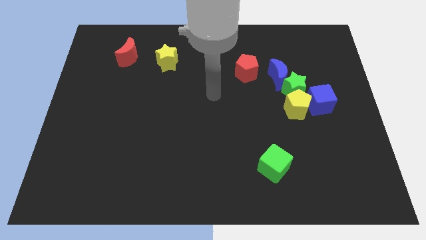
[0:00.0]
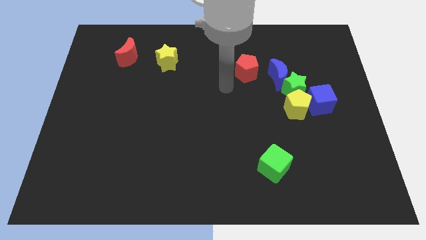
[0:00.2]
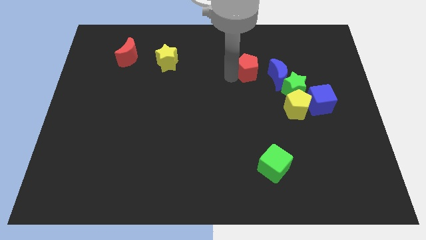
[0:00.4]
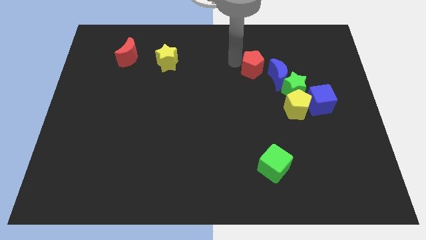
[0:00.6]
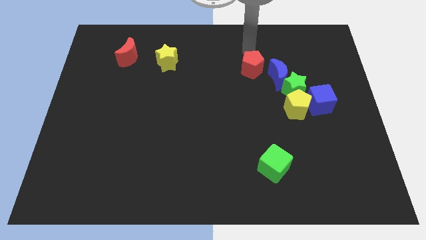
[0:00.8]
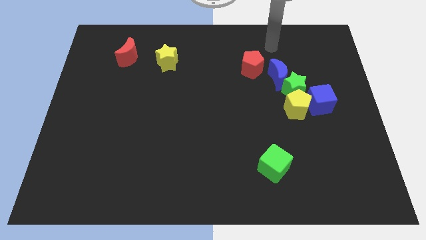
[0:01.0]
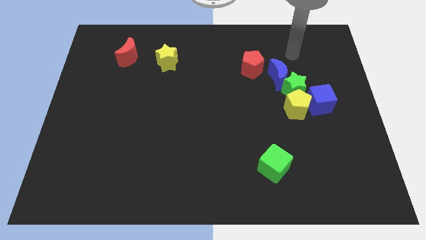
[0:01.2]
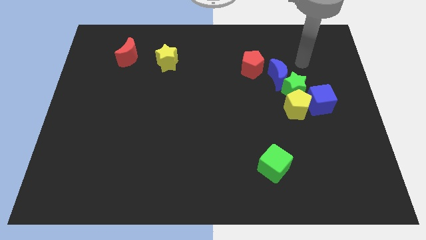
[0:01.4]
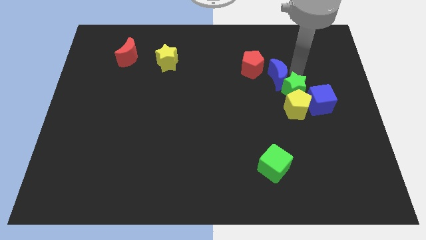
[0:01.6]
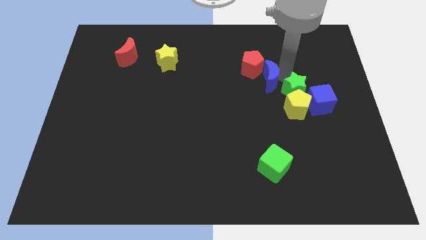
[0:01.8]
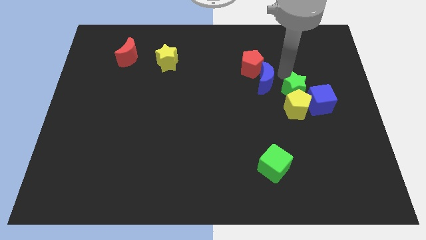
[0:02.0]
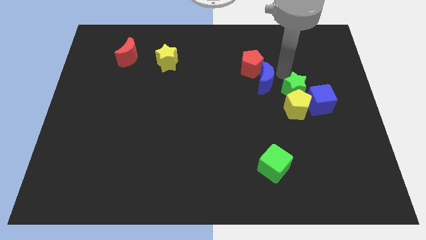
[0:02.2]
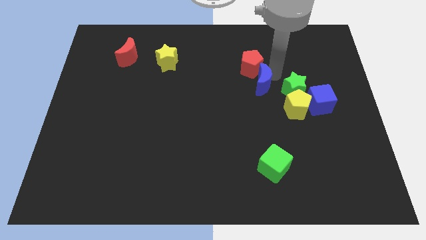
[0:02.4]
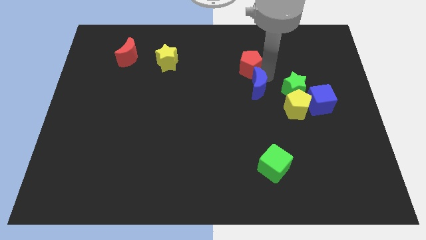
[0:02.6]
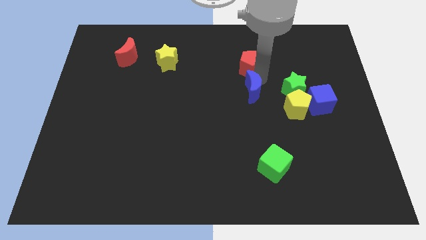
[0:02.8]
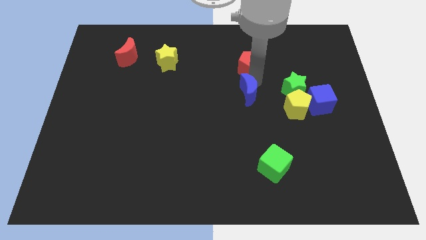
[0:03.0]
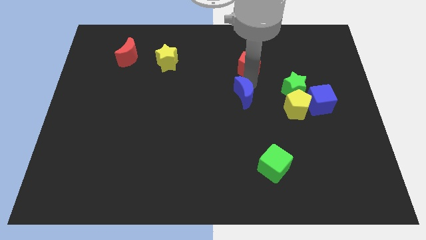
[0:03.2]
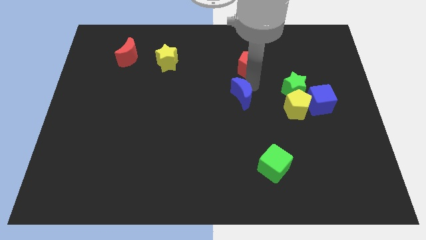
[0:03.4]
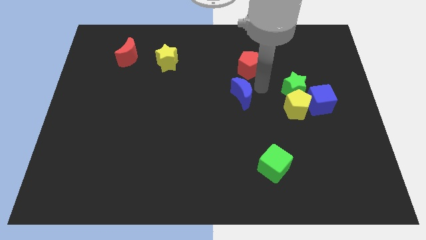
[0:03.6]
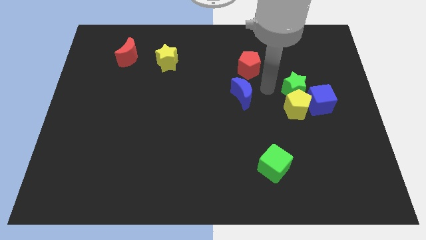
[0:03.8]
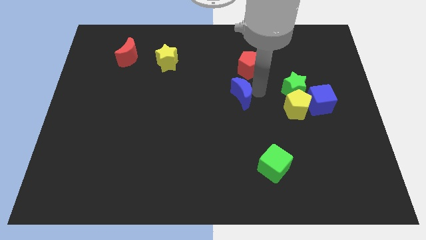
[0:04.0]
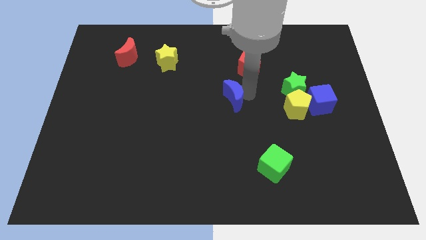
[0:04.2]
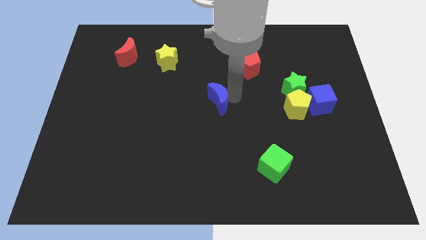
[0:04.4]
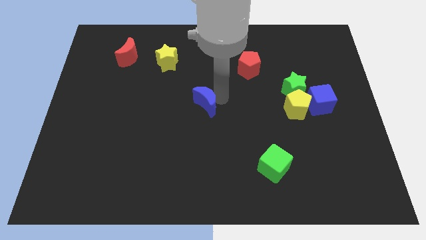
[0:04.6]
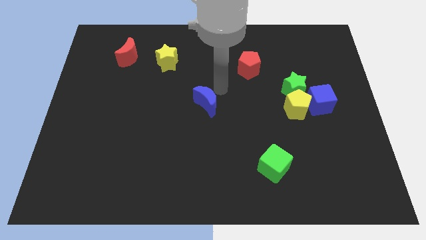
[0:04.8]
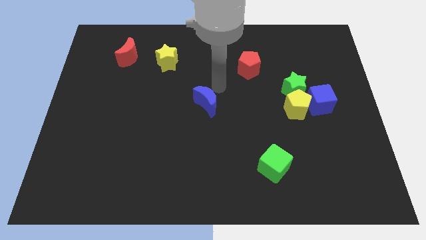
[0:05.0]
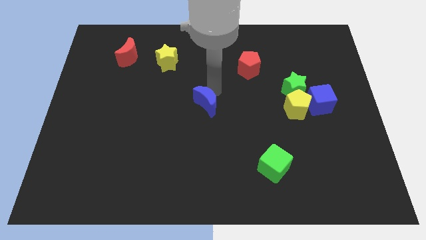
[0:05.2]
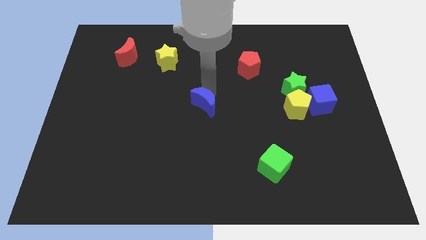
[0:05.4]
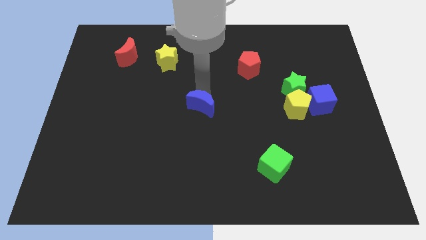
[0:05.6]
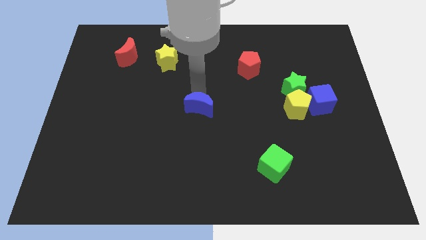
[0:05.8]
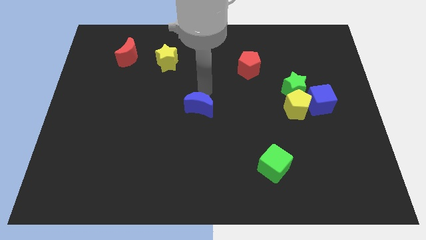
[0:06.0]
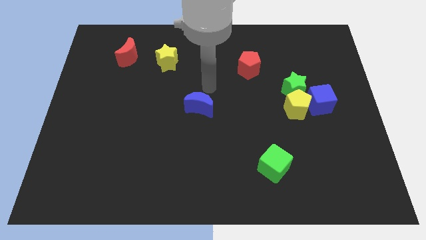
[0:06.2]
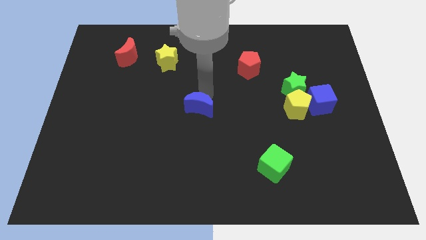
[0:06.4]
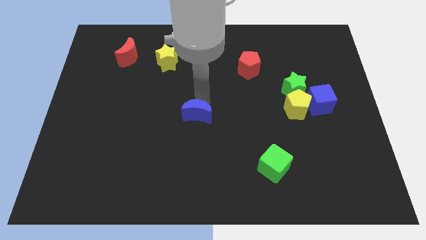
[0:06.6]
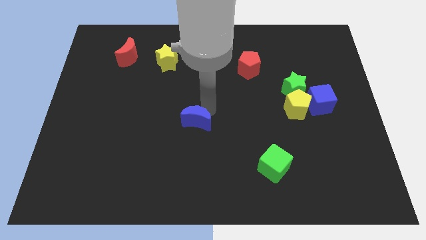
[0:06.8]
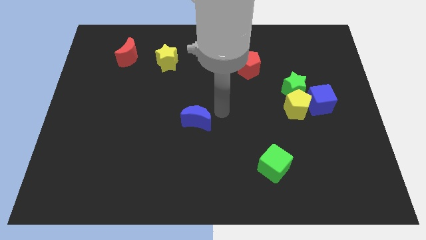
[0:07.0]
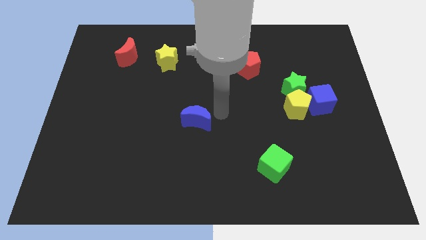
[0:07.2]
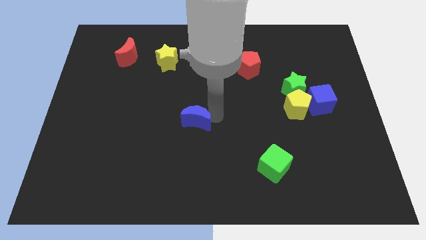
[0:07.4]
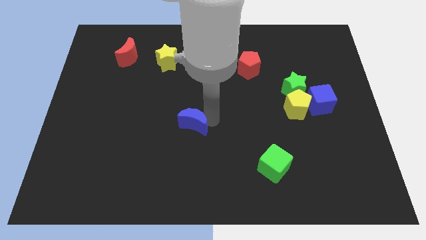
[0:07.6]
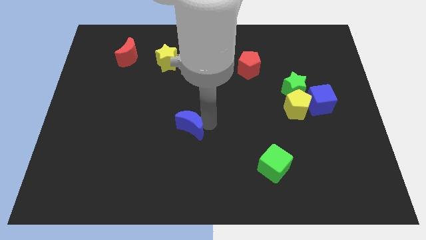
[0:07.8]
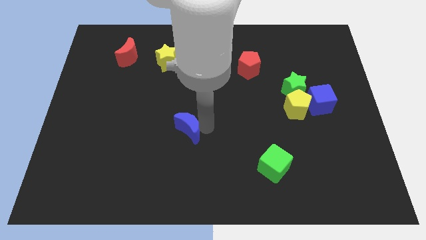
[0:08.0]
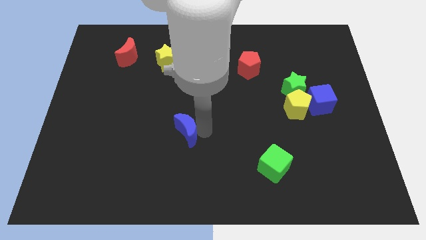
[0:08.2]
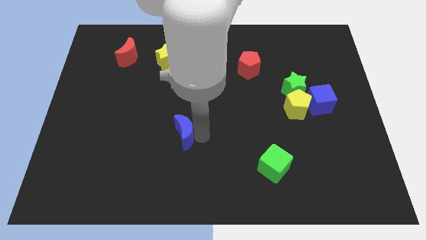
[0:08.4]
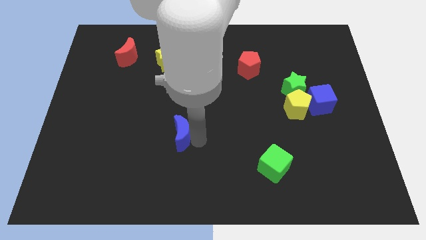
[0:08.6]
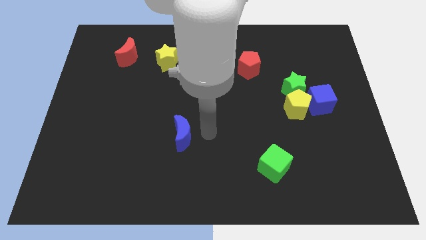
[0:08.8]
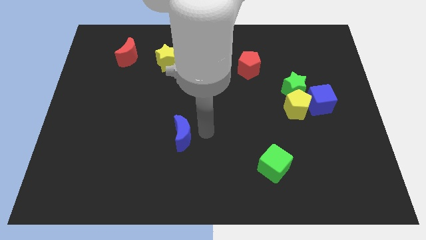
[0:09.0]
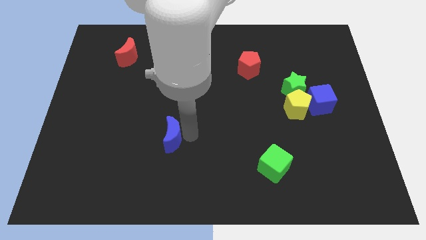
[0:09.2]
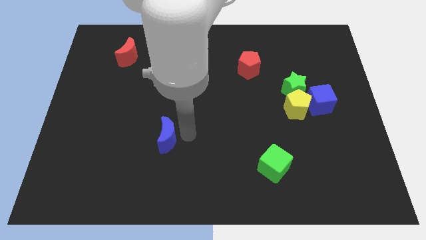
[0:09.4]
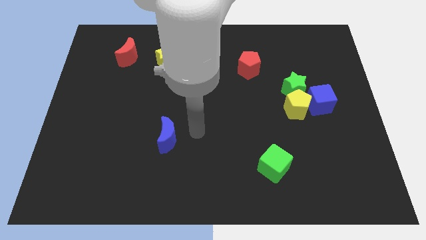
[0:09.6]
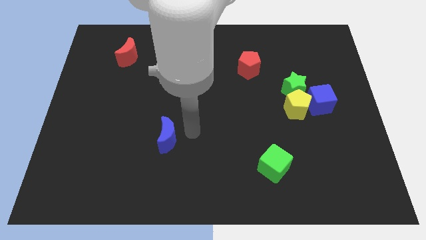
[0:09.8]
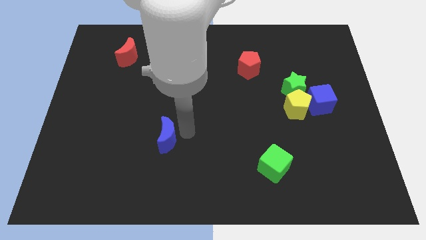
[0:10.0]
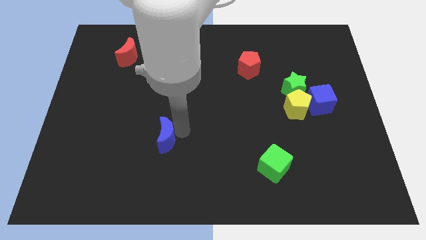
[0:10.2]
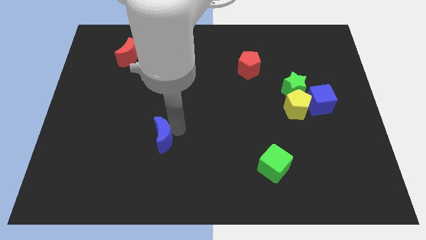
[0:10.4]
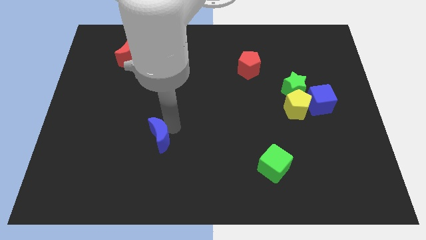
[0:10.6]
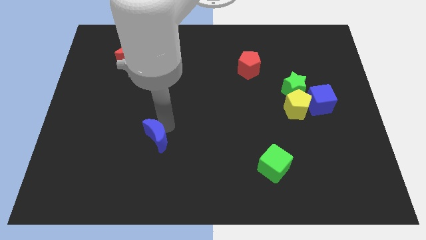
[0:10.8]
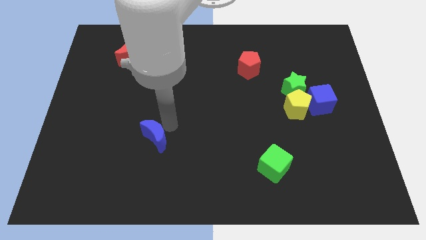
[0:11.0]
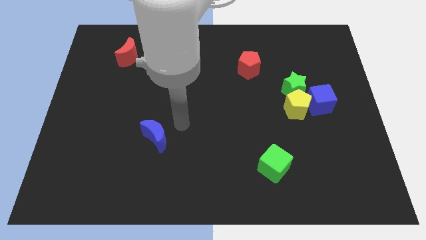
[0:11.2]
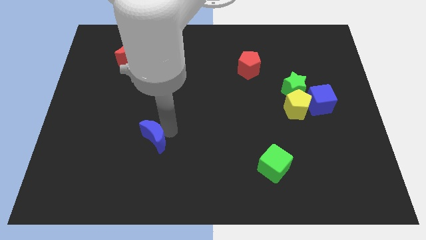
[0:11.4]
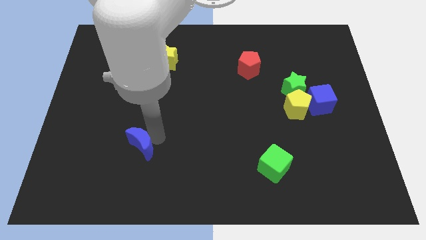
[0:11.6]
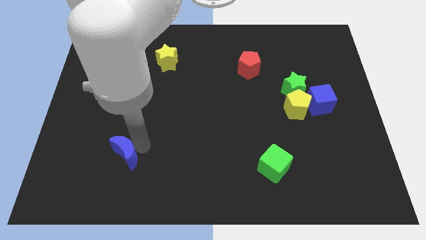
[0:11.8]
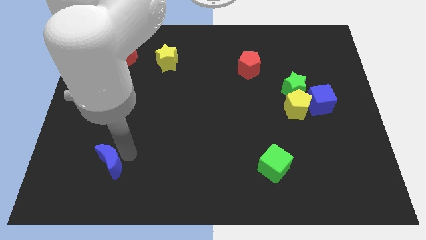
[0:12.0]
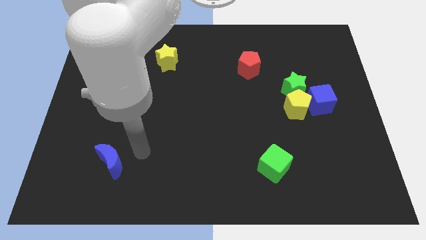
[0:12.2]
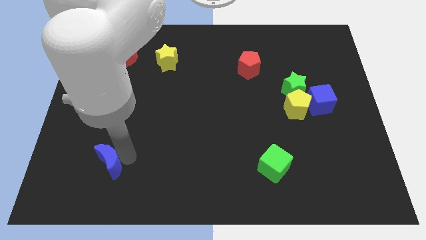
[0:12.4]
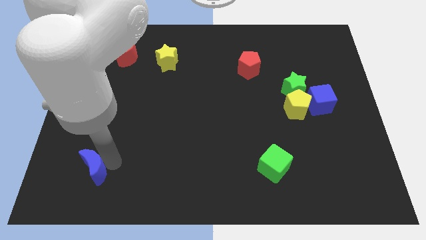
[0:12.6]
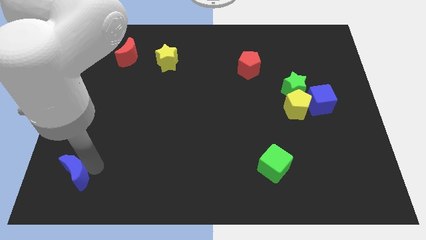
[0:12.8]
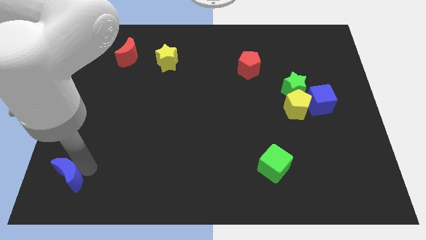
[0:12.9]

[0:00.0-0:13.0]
put the blue moon to the bottom left
